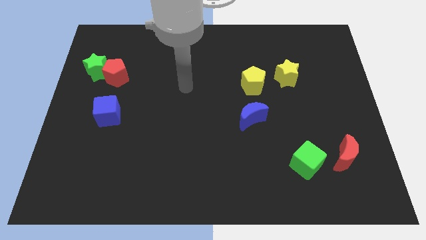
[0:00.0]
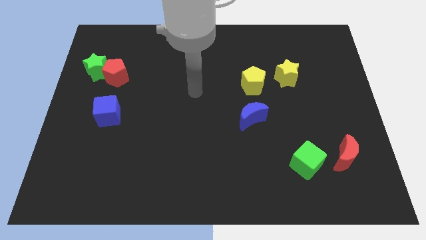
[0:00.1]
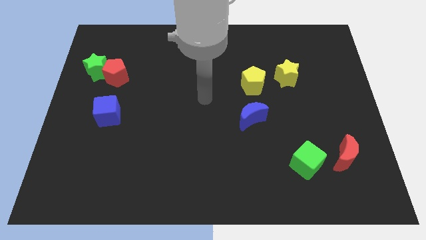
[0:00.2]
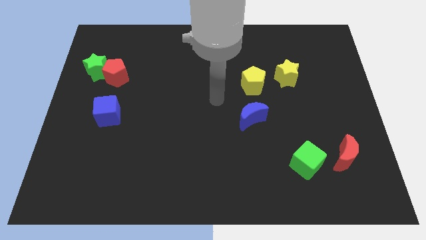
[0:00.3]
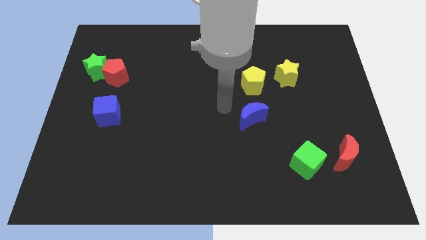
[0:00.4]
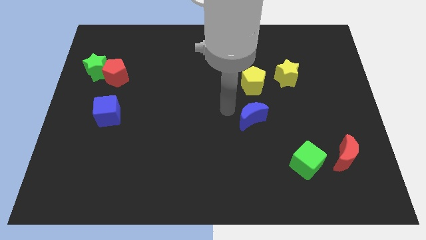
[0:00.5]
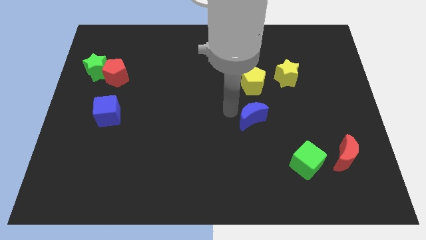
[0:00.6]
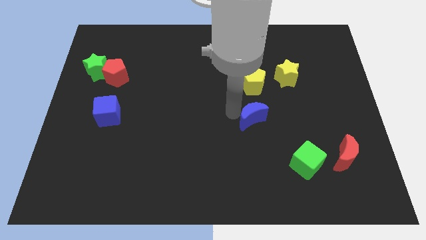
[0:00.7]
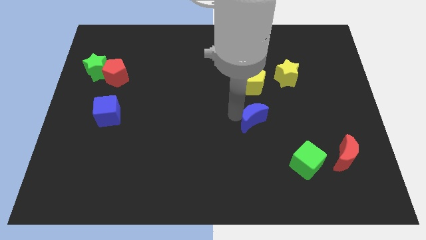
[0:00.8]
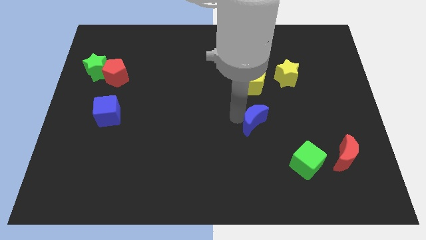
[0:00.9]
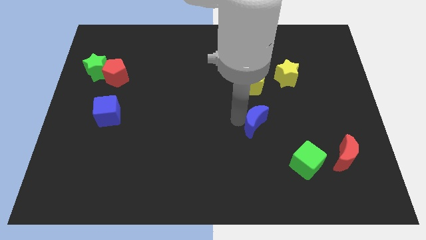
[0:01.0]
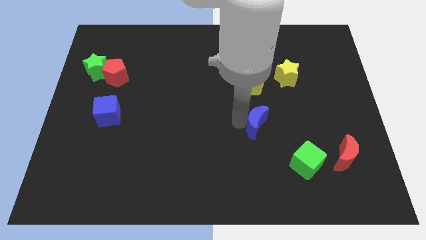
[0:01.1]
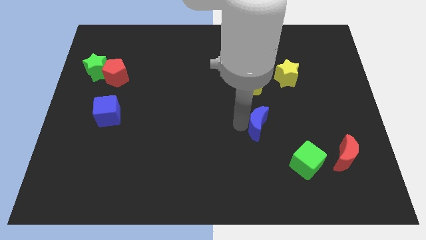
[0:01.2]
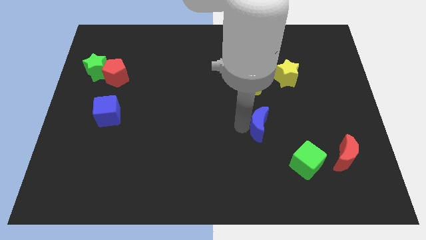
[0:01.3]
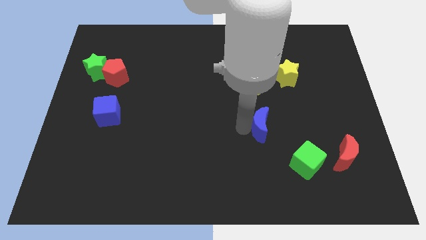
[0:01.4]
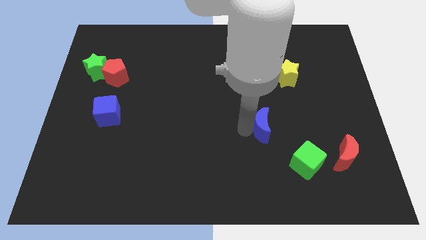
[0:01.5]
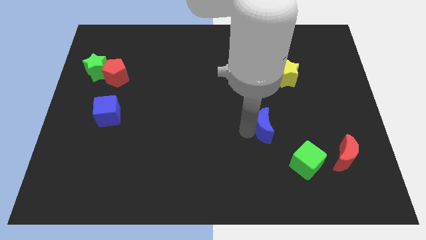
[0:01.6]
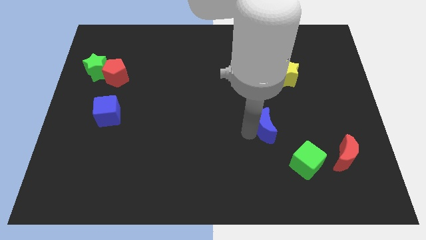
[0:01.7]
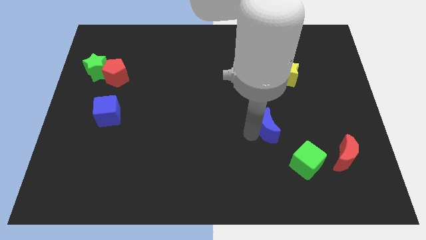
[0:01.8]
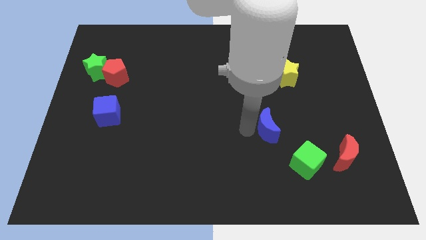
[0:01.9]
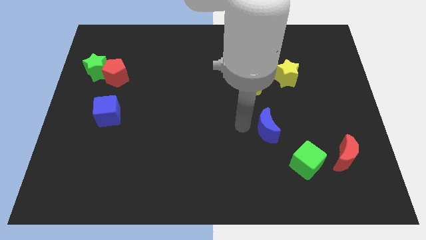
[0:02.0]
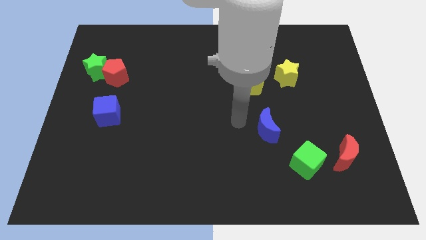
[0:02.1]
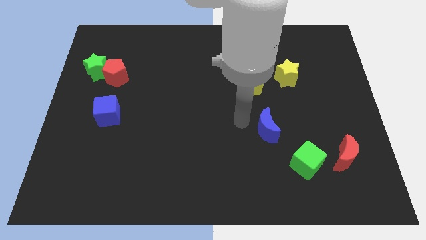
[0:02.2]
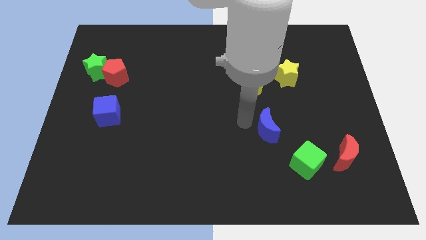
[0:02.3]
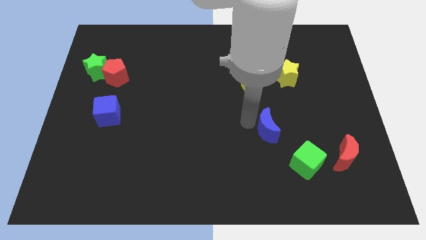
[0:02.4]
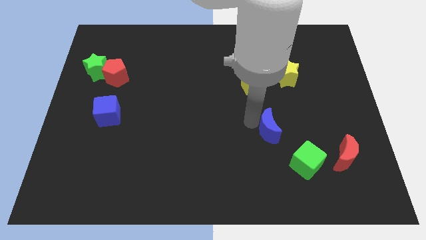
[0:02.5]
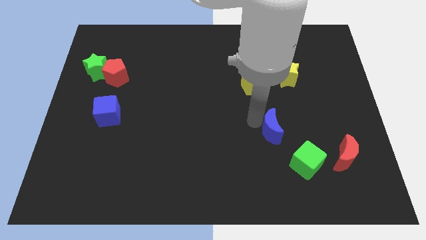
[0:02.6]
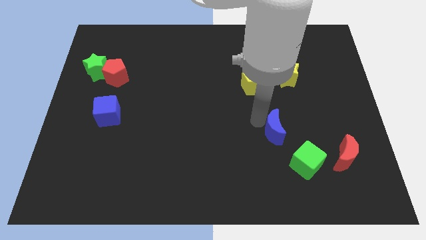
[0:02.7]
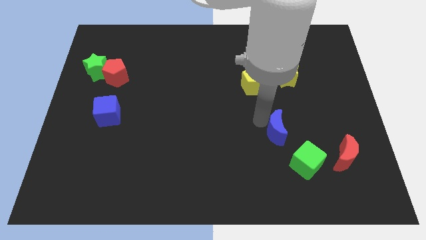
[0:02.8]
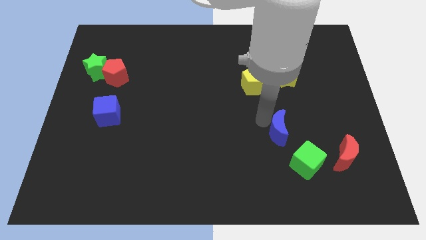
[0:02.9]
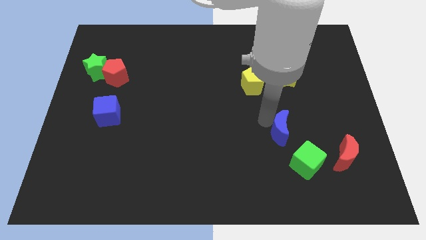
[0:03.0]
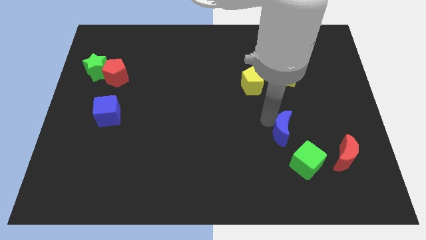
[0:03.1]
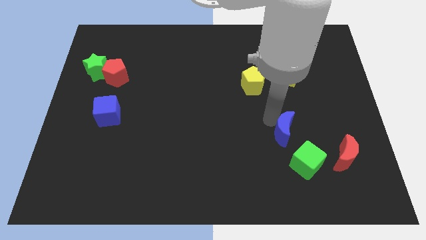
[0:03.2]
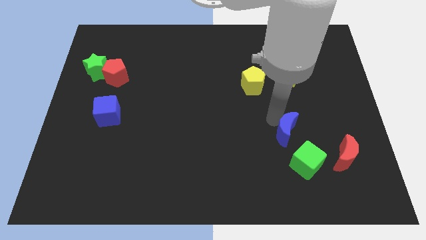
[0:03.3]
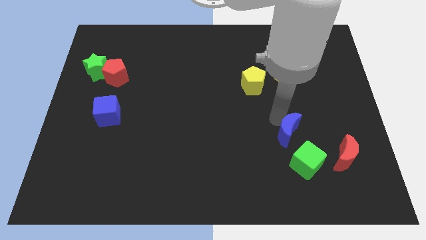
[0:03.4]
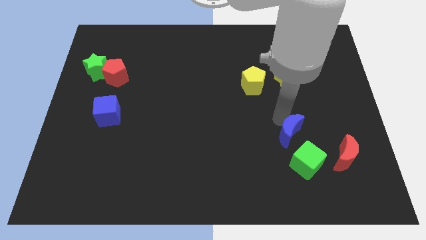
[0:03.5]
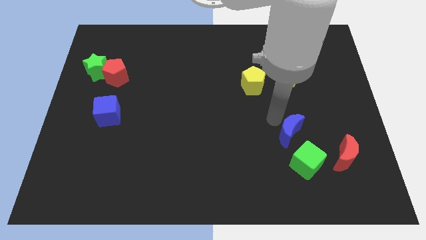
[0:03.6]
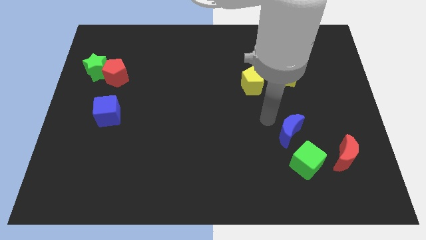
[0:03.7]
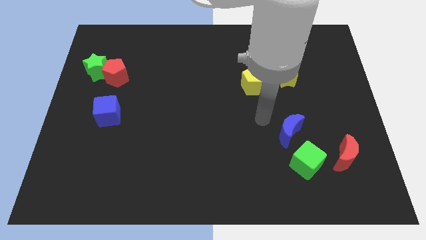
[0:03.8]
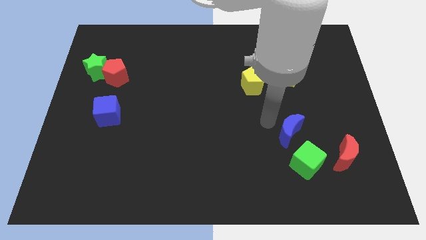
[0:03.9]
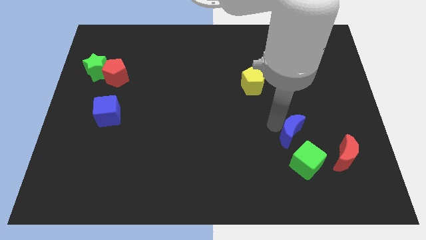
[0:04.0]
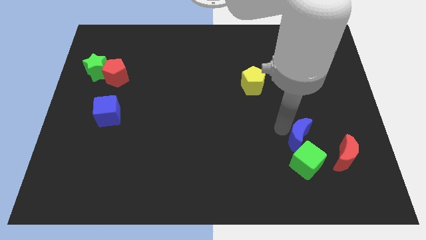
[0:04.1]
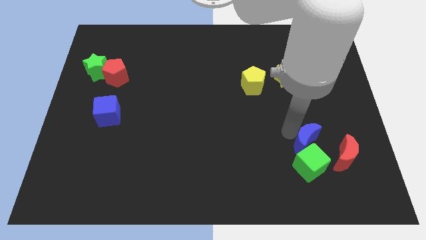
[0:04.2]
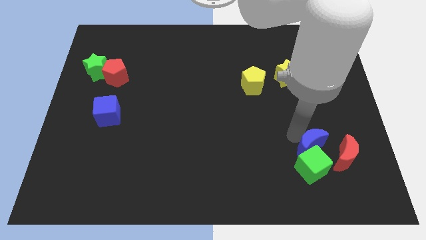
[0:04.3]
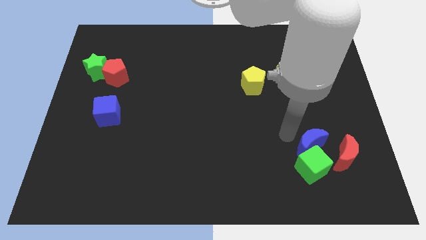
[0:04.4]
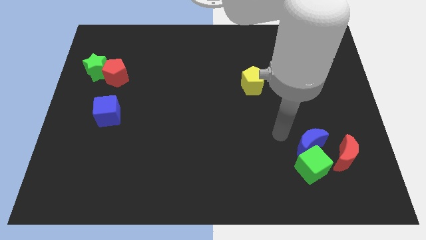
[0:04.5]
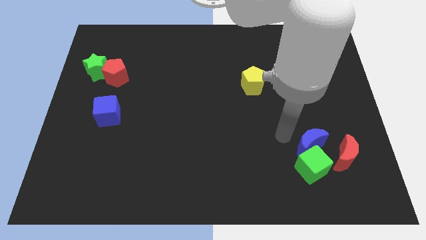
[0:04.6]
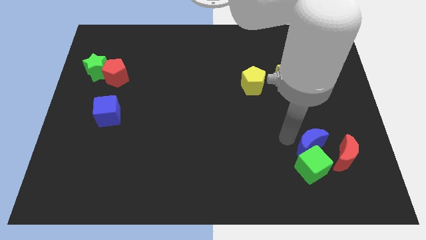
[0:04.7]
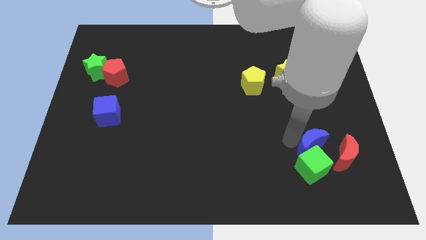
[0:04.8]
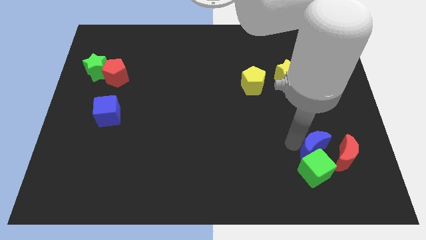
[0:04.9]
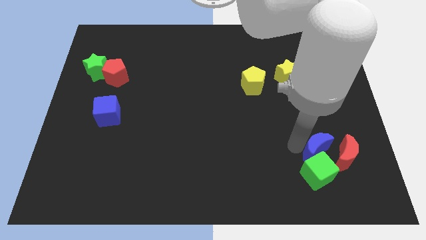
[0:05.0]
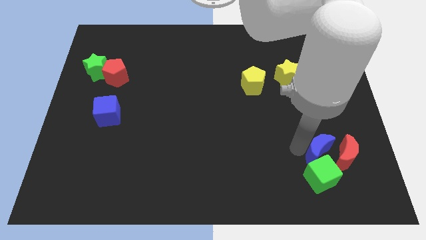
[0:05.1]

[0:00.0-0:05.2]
push the blue moon close to the red moon

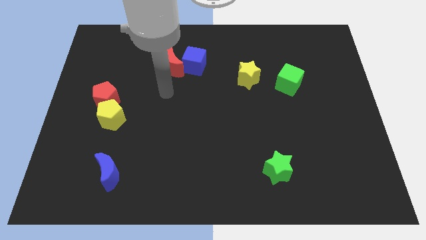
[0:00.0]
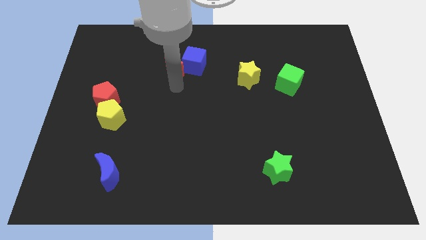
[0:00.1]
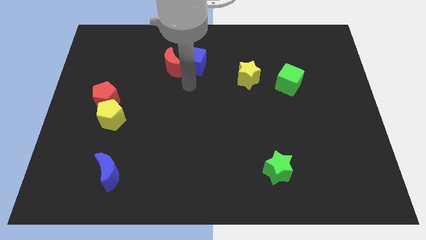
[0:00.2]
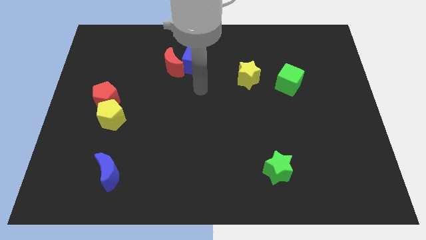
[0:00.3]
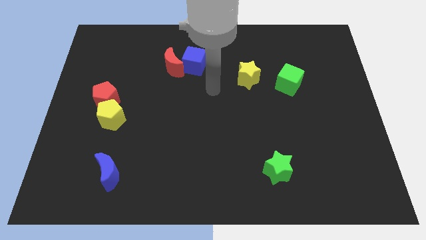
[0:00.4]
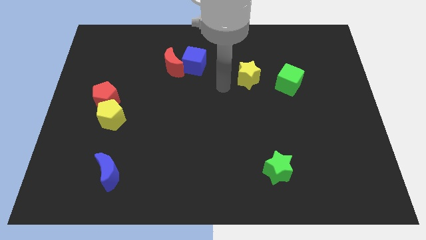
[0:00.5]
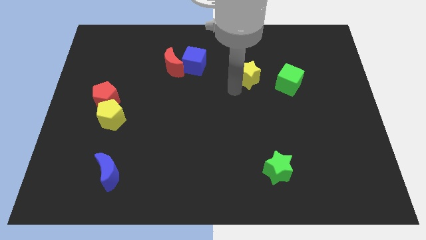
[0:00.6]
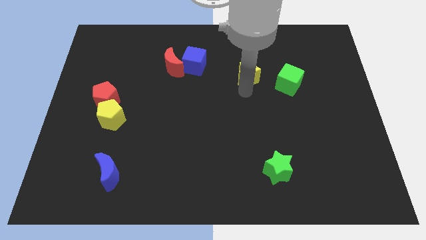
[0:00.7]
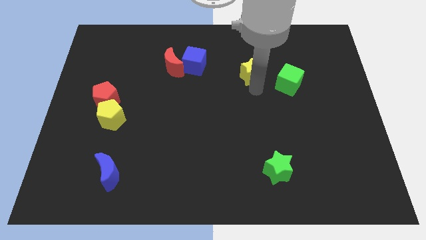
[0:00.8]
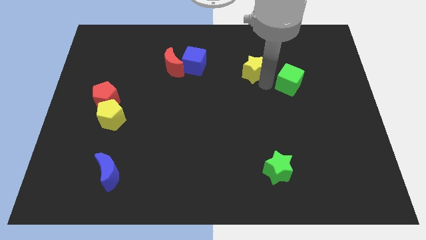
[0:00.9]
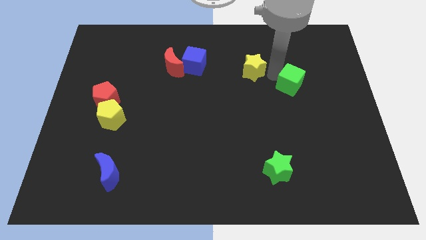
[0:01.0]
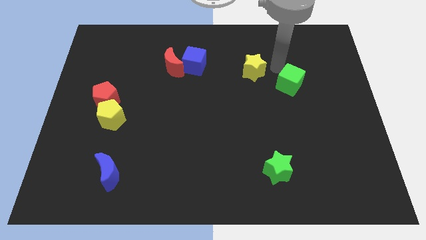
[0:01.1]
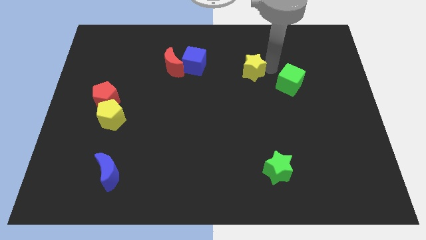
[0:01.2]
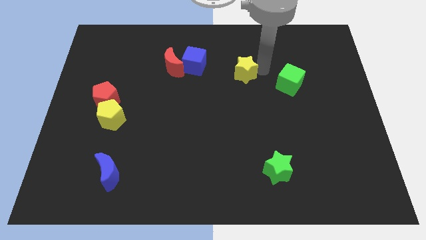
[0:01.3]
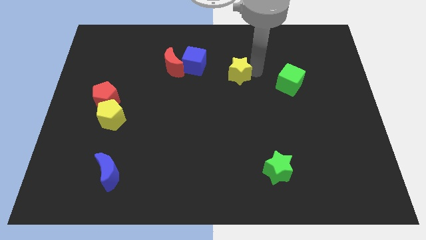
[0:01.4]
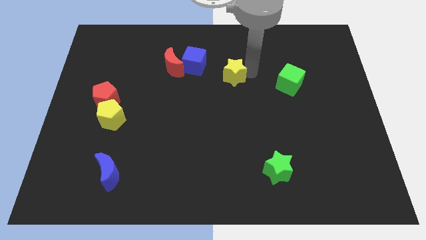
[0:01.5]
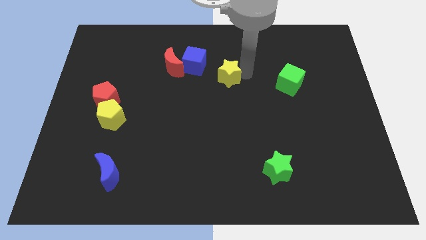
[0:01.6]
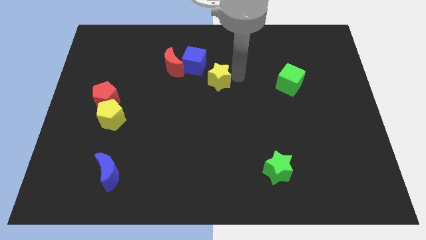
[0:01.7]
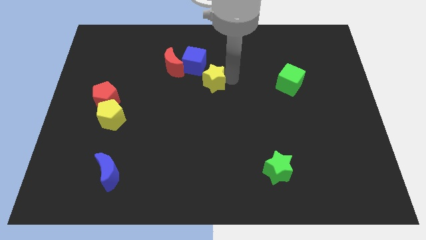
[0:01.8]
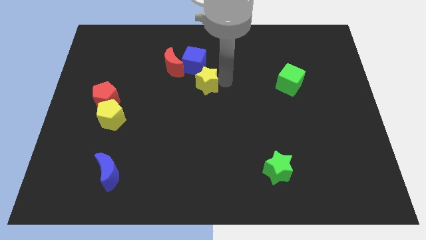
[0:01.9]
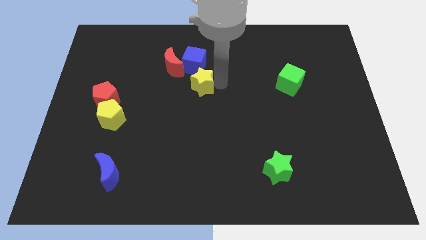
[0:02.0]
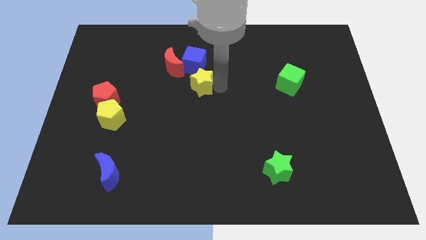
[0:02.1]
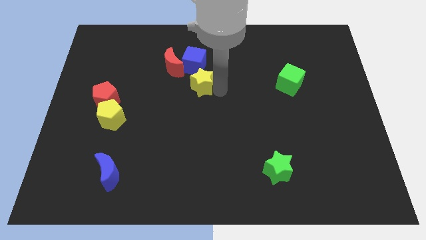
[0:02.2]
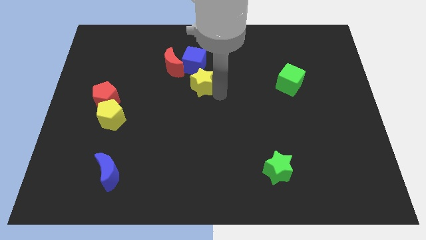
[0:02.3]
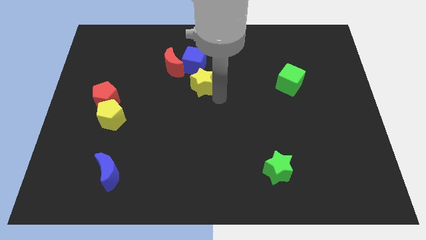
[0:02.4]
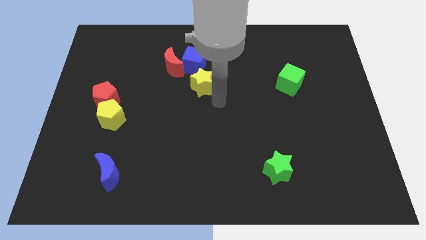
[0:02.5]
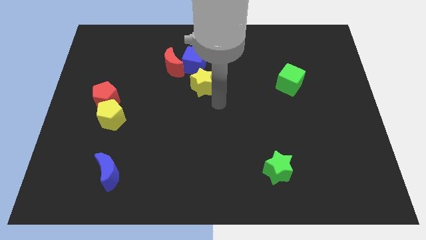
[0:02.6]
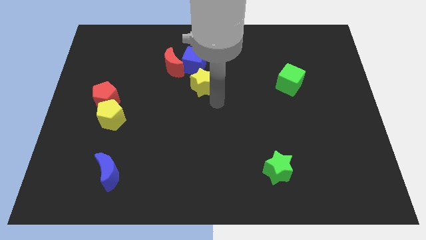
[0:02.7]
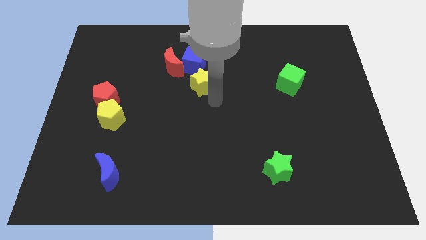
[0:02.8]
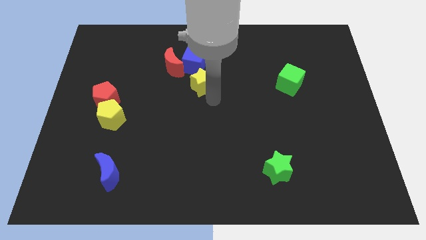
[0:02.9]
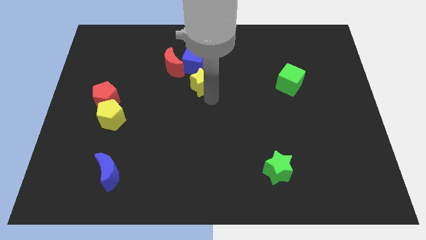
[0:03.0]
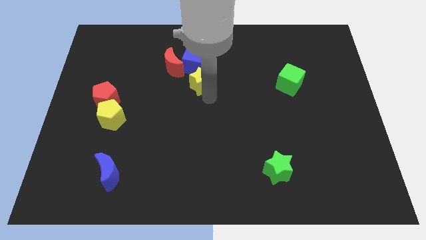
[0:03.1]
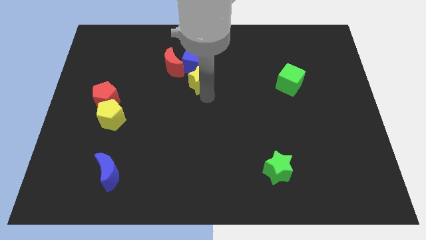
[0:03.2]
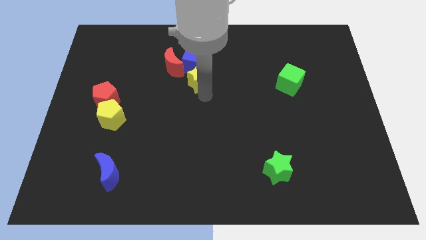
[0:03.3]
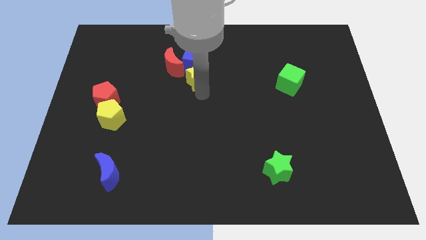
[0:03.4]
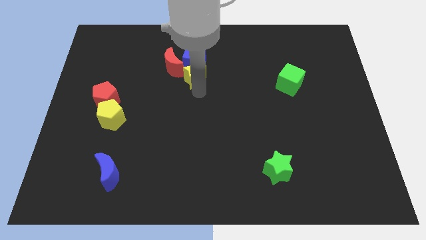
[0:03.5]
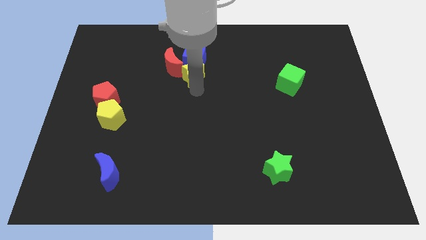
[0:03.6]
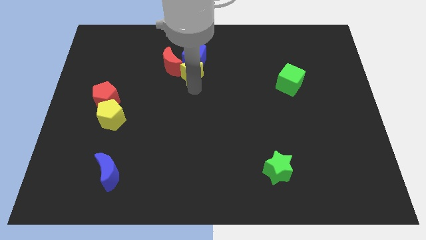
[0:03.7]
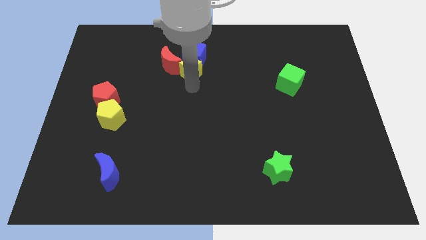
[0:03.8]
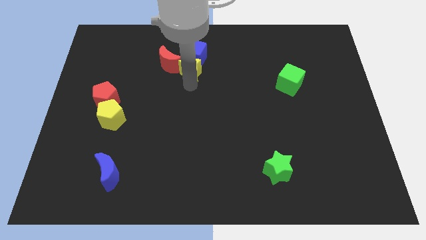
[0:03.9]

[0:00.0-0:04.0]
push the yellow star close to the red moon
